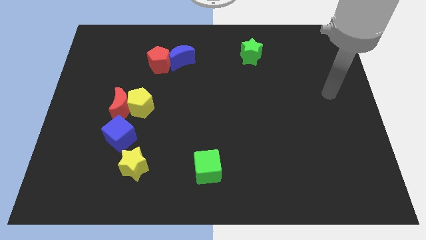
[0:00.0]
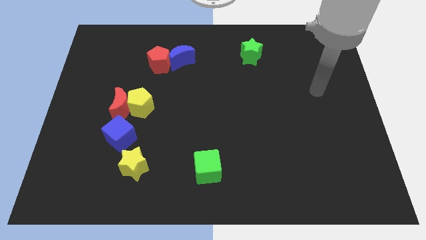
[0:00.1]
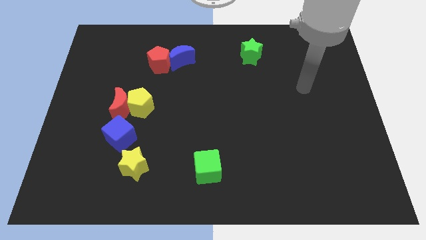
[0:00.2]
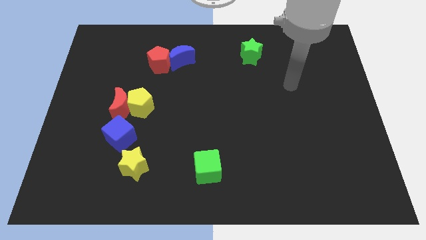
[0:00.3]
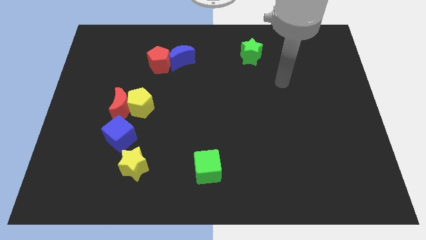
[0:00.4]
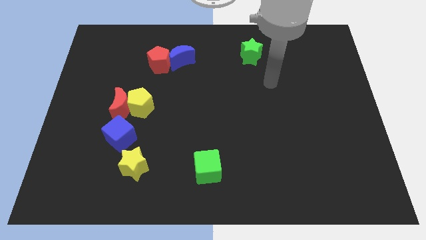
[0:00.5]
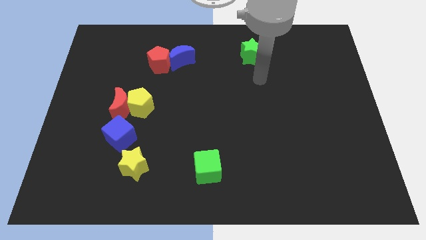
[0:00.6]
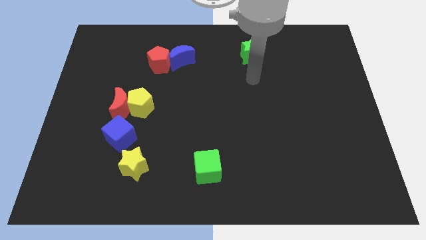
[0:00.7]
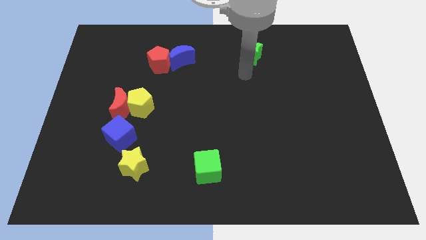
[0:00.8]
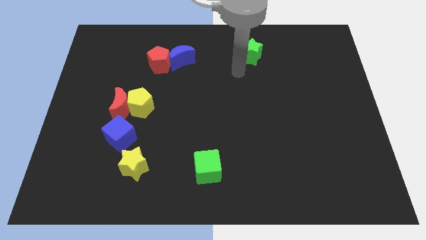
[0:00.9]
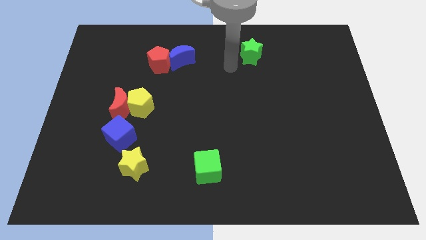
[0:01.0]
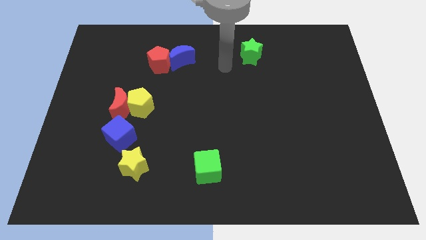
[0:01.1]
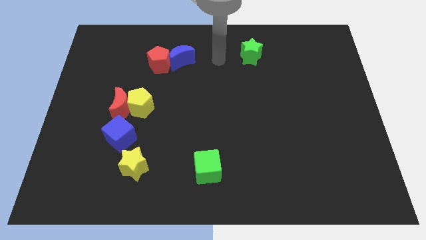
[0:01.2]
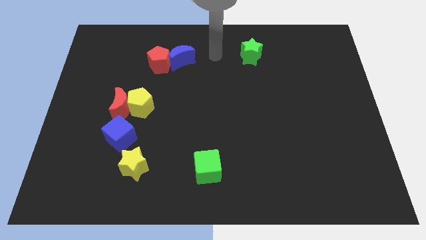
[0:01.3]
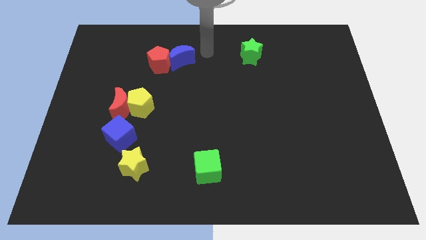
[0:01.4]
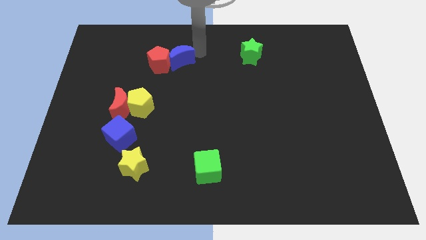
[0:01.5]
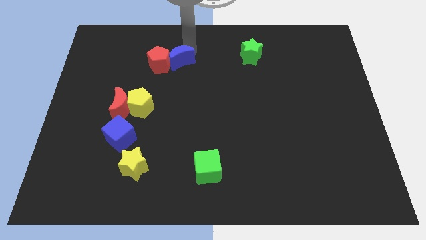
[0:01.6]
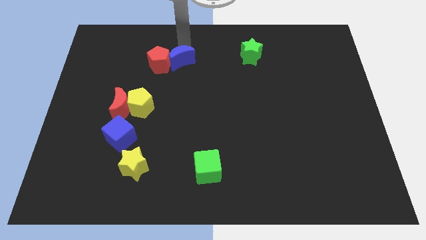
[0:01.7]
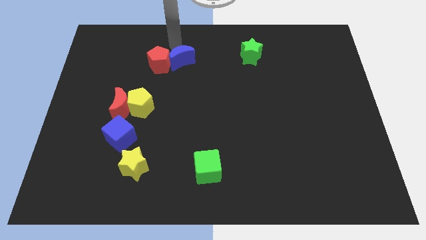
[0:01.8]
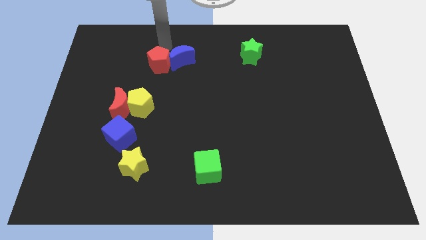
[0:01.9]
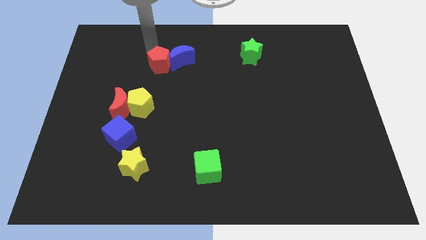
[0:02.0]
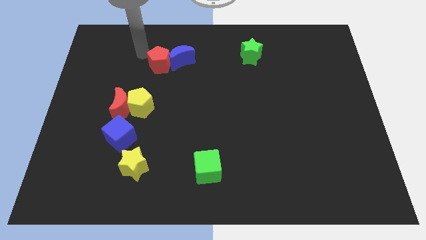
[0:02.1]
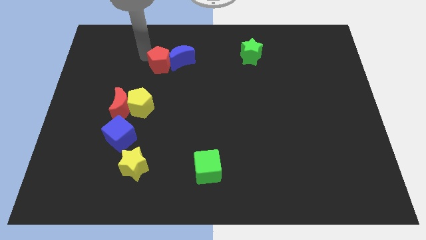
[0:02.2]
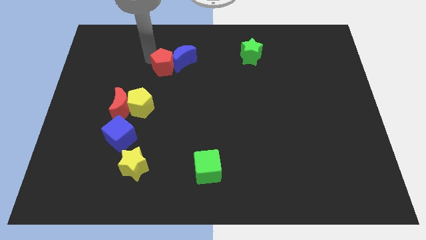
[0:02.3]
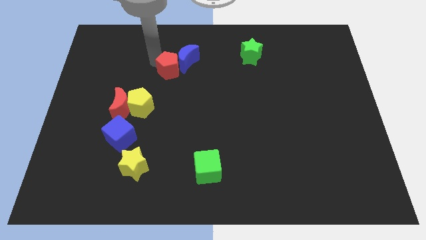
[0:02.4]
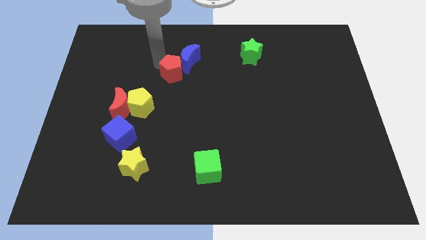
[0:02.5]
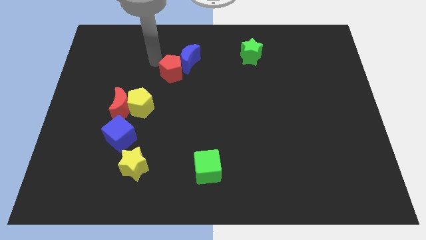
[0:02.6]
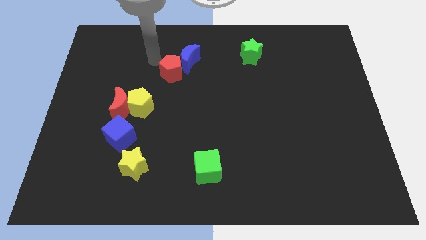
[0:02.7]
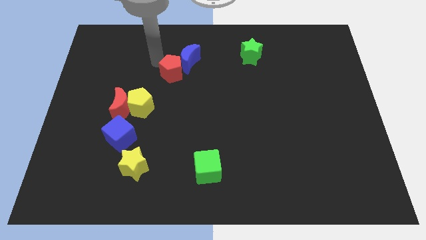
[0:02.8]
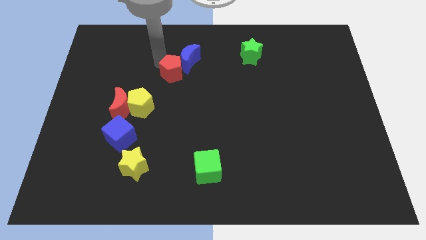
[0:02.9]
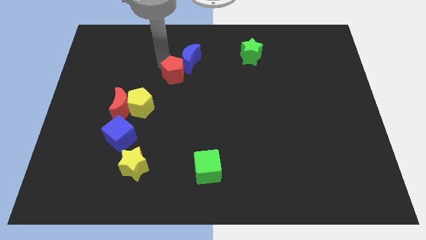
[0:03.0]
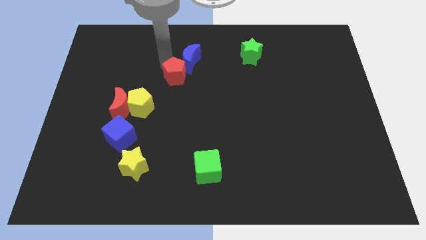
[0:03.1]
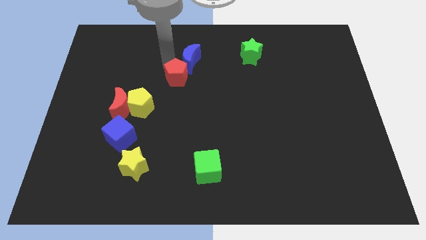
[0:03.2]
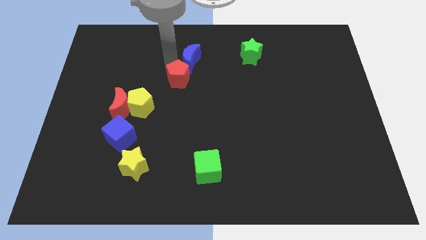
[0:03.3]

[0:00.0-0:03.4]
push the red pentagon somewhat downwards and to the right

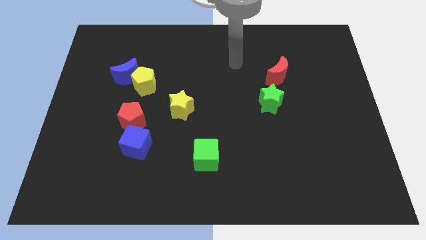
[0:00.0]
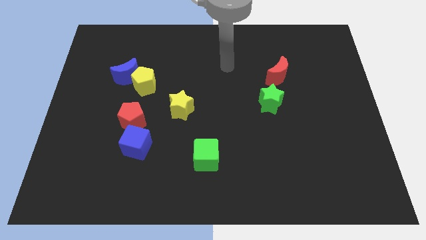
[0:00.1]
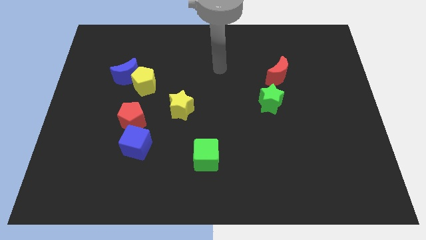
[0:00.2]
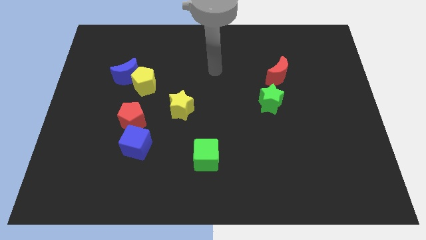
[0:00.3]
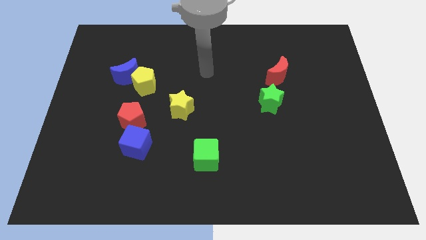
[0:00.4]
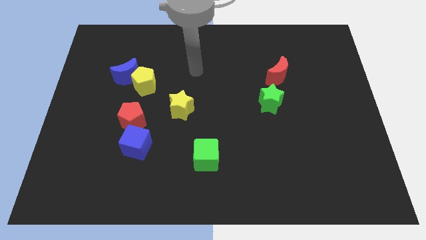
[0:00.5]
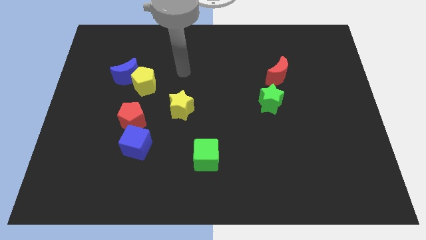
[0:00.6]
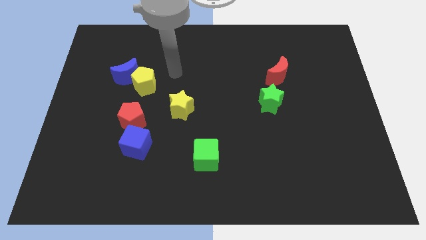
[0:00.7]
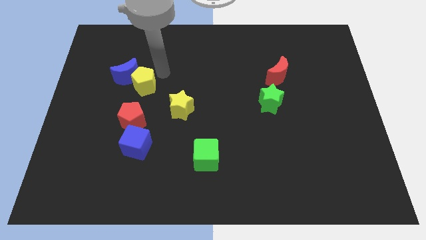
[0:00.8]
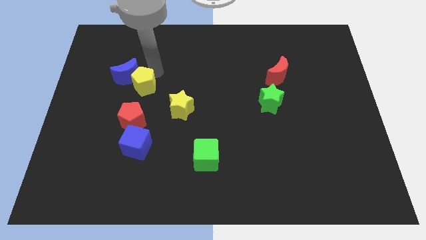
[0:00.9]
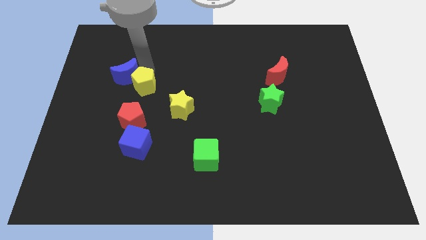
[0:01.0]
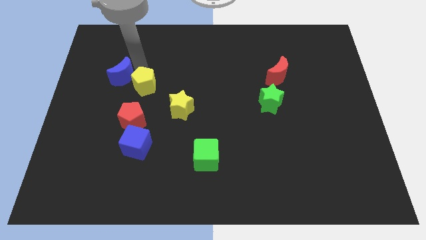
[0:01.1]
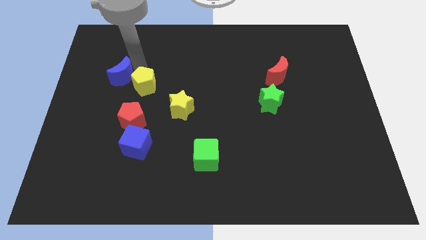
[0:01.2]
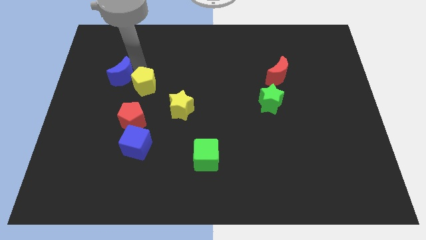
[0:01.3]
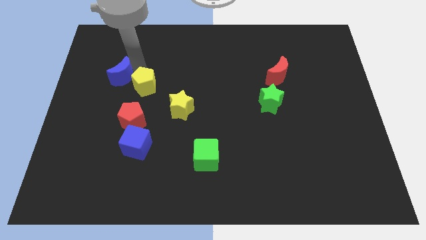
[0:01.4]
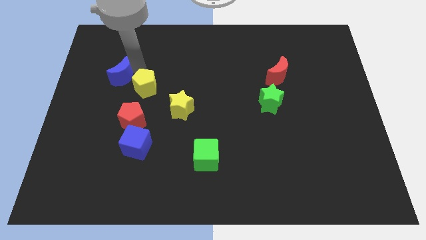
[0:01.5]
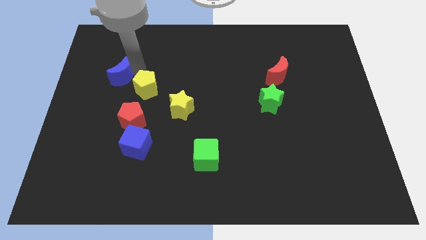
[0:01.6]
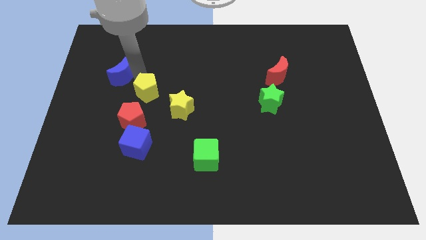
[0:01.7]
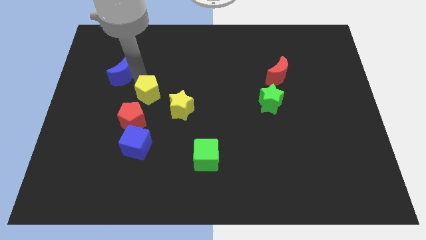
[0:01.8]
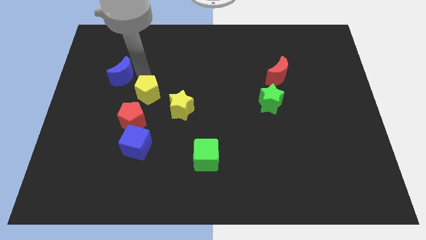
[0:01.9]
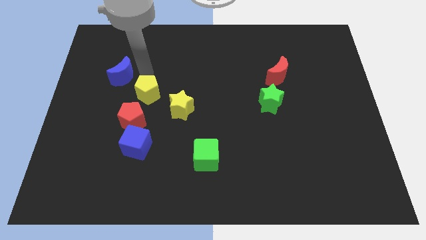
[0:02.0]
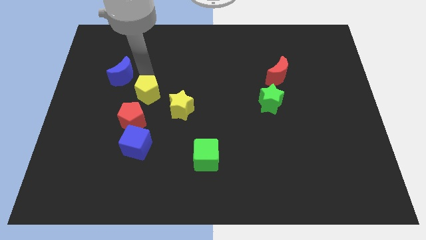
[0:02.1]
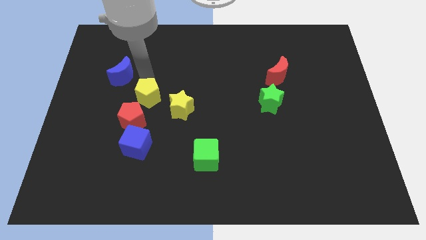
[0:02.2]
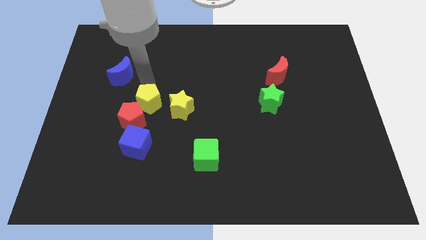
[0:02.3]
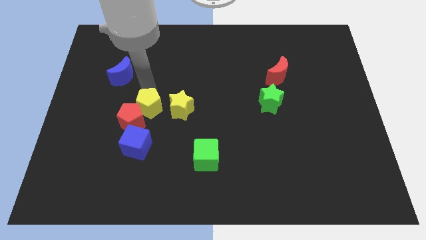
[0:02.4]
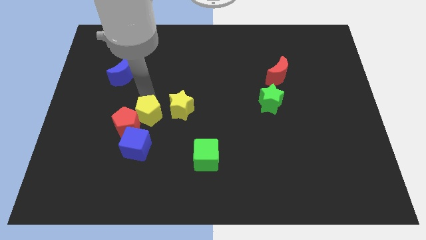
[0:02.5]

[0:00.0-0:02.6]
slide the yellow pentagon somewhat downwards and right

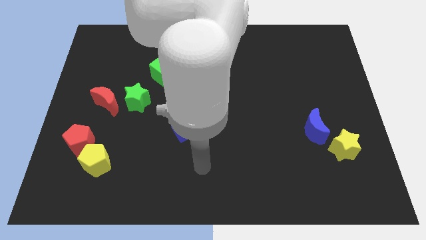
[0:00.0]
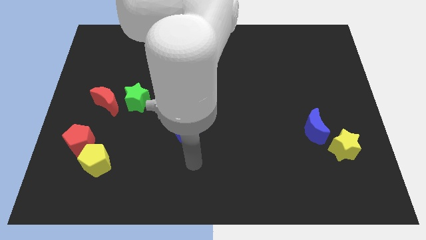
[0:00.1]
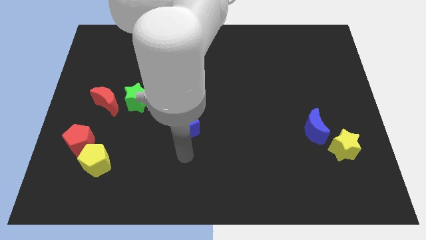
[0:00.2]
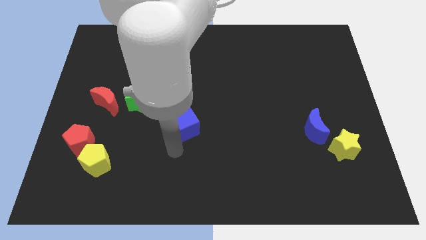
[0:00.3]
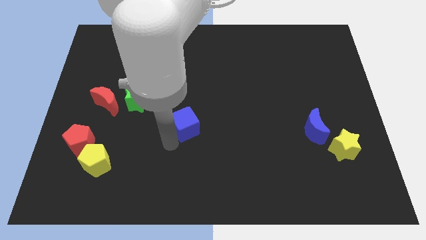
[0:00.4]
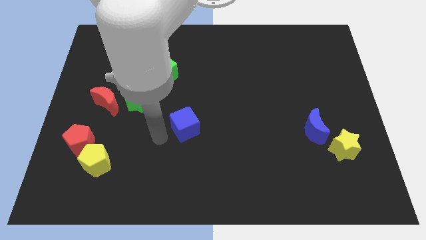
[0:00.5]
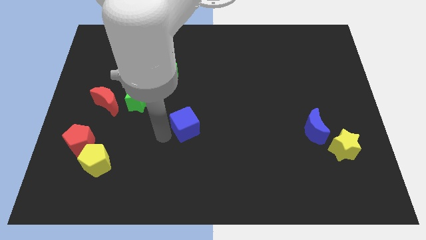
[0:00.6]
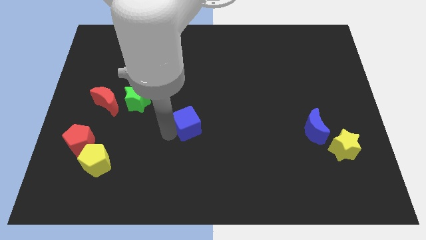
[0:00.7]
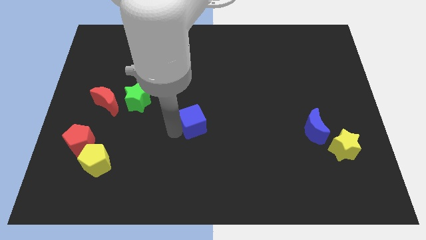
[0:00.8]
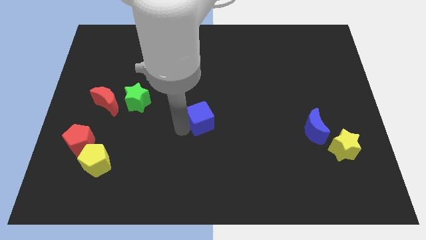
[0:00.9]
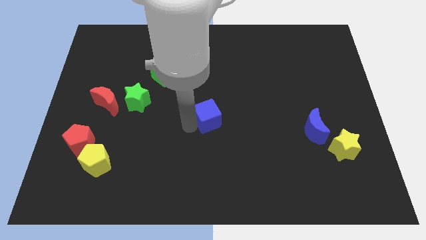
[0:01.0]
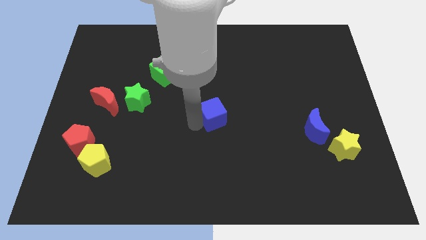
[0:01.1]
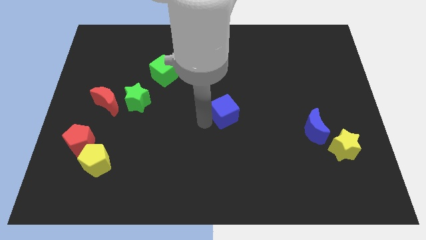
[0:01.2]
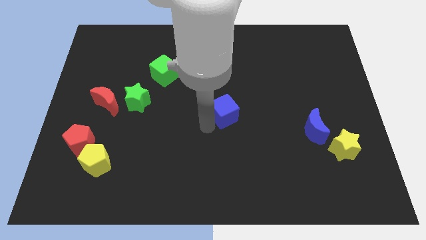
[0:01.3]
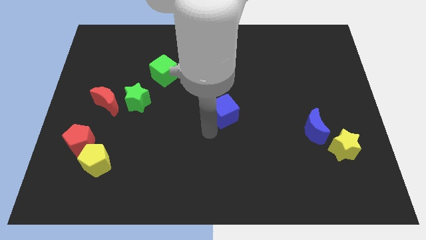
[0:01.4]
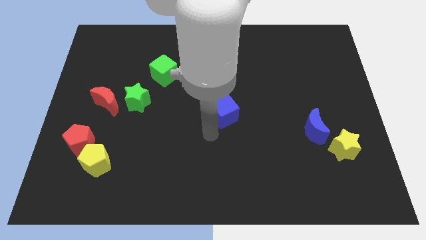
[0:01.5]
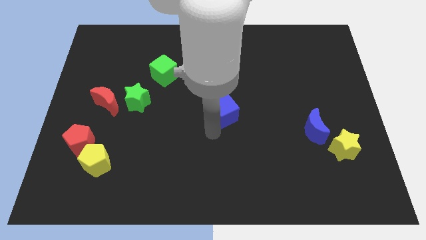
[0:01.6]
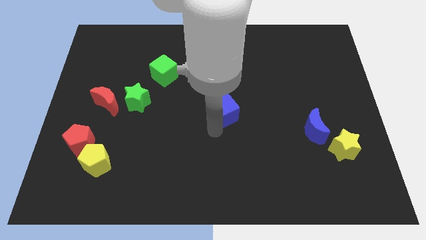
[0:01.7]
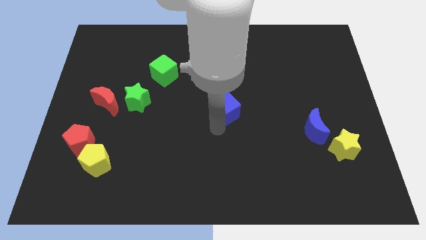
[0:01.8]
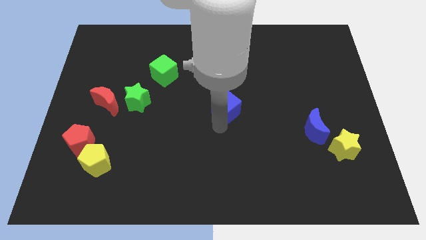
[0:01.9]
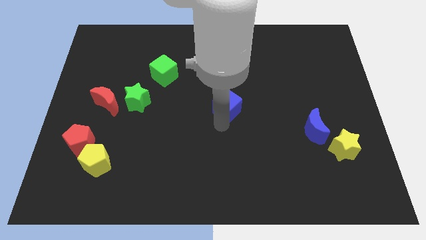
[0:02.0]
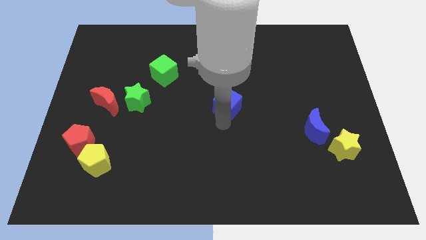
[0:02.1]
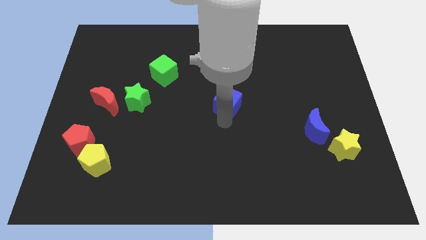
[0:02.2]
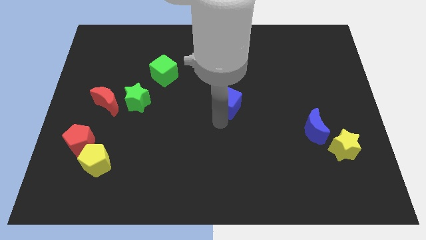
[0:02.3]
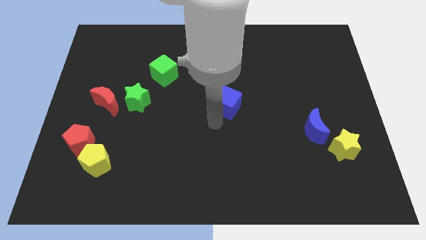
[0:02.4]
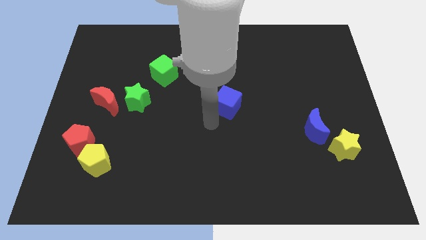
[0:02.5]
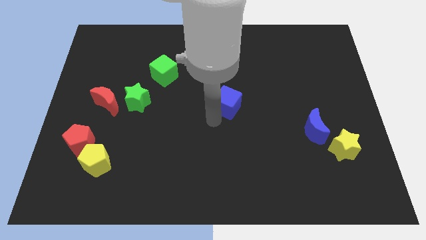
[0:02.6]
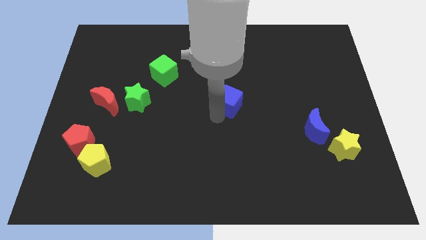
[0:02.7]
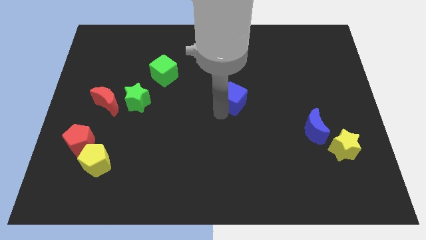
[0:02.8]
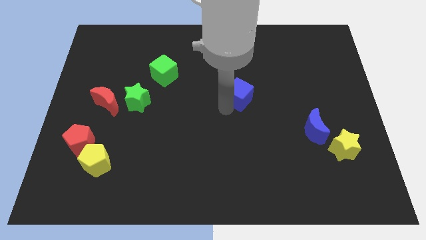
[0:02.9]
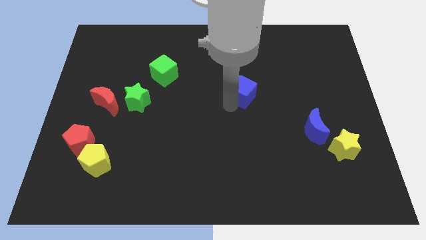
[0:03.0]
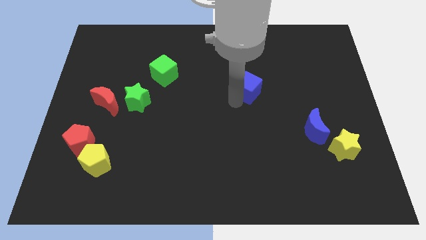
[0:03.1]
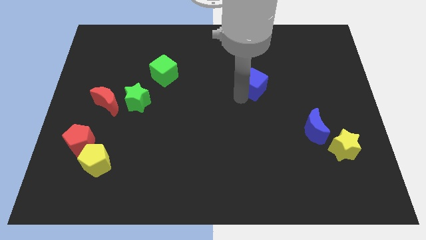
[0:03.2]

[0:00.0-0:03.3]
slide the blue cube upwards and then right
